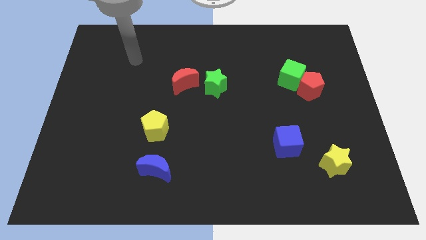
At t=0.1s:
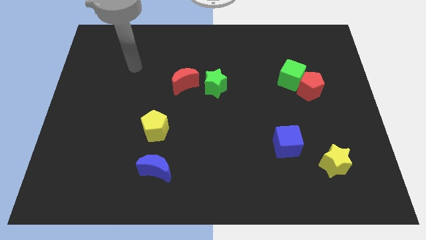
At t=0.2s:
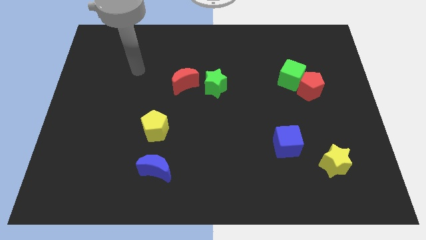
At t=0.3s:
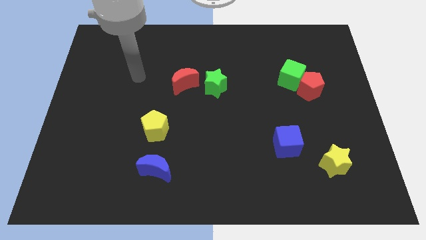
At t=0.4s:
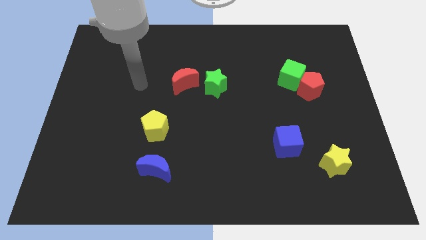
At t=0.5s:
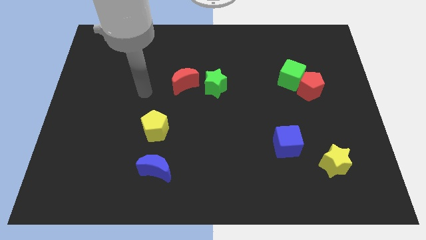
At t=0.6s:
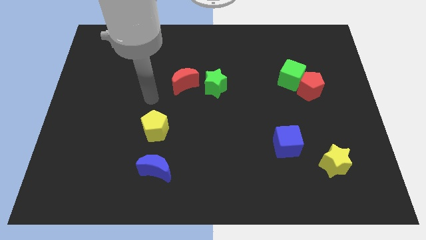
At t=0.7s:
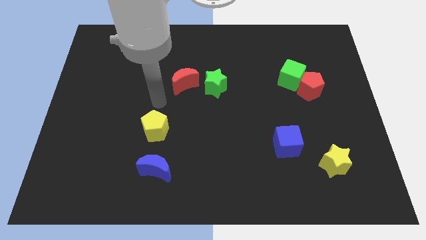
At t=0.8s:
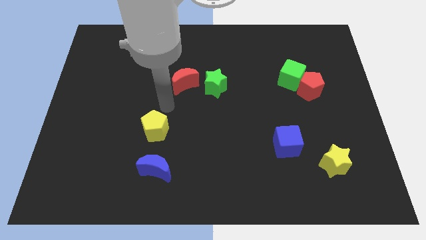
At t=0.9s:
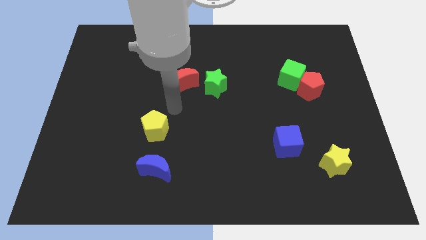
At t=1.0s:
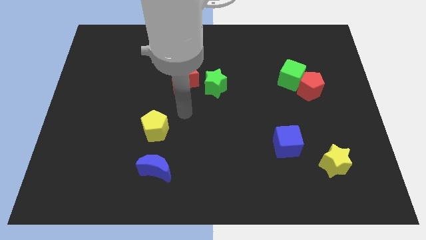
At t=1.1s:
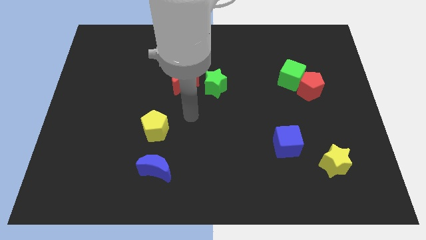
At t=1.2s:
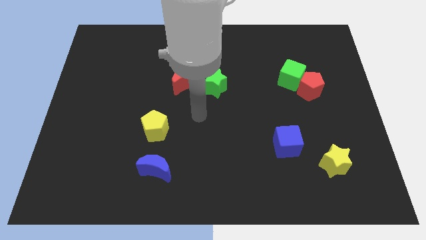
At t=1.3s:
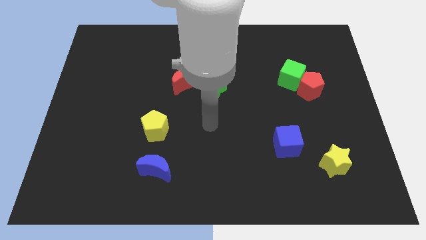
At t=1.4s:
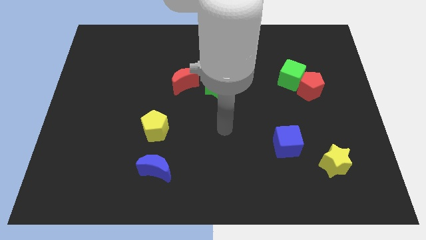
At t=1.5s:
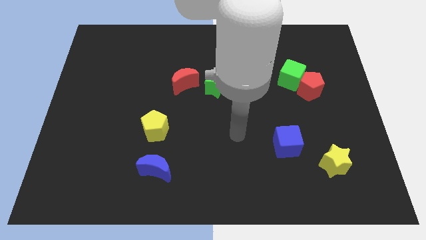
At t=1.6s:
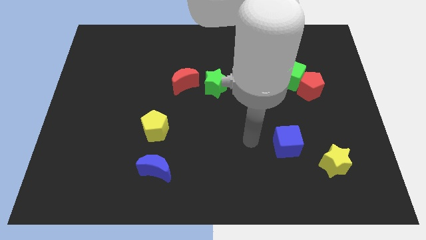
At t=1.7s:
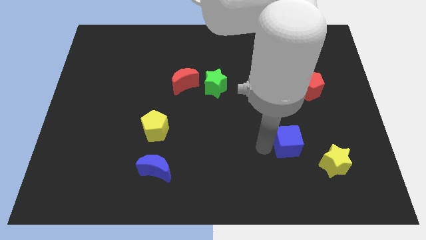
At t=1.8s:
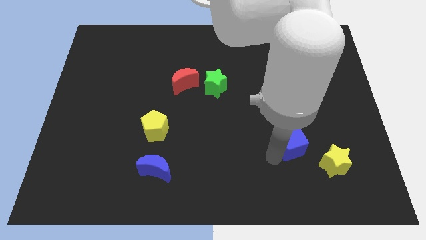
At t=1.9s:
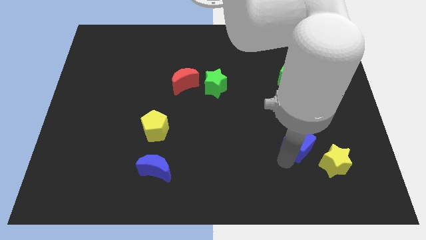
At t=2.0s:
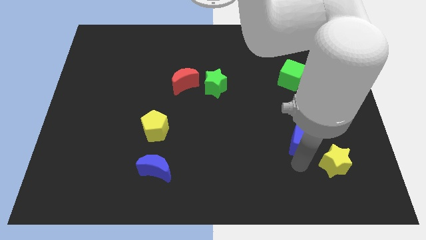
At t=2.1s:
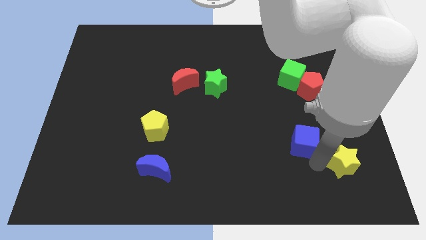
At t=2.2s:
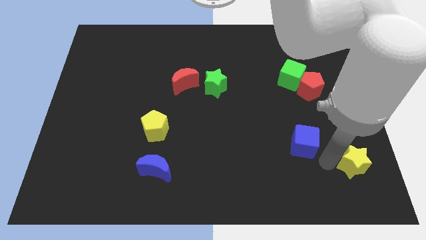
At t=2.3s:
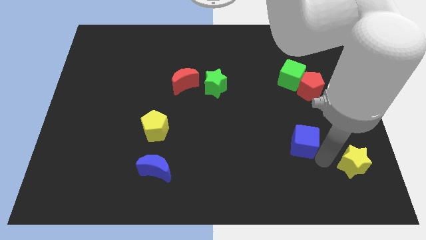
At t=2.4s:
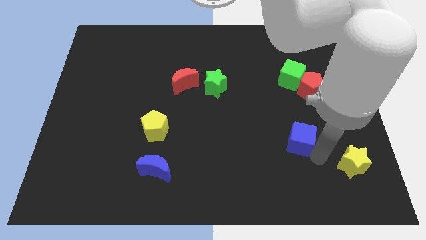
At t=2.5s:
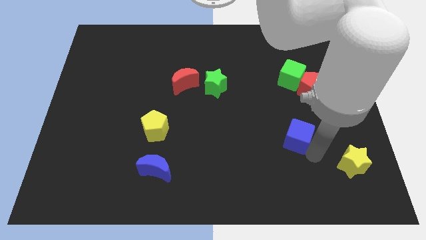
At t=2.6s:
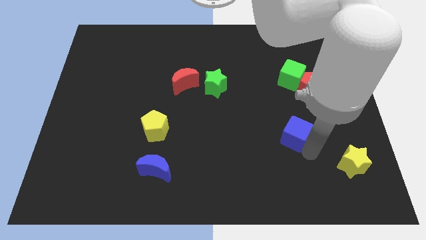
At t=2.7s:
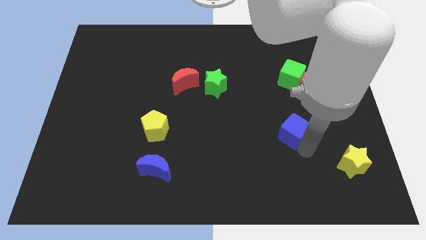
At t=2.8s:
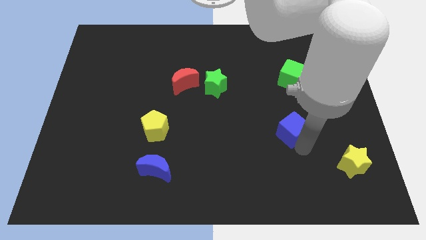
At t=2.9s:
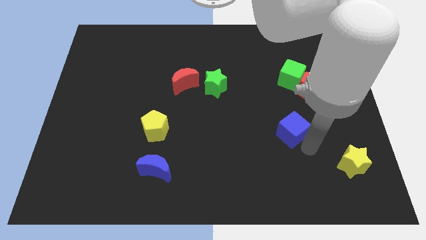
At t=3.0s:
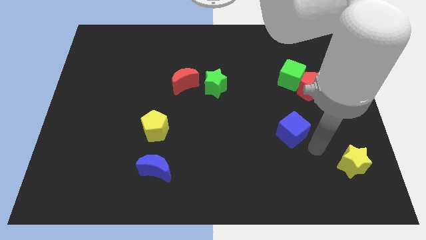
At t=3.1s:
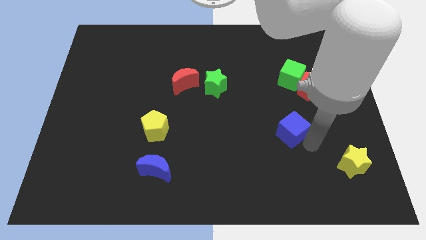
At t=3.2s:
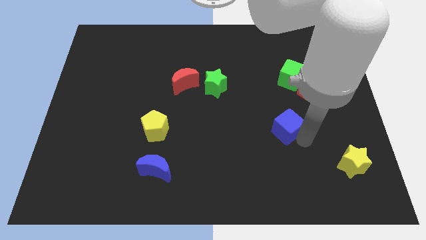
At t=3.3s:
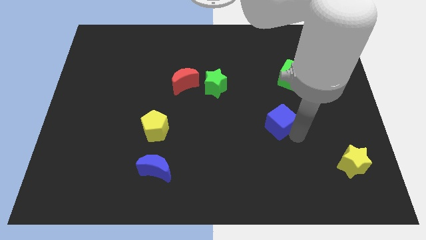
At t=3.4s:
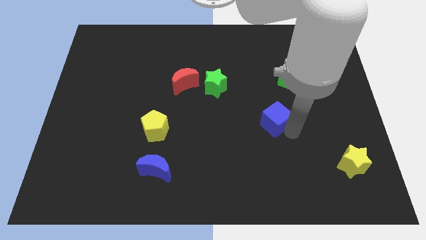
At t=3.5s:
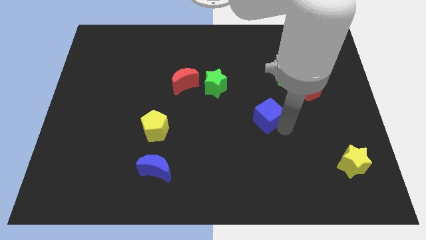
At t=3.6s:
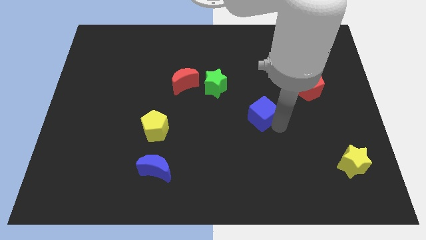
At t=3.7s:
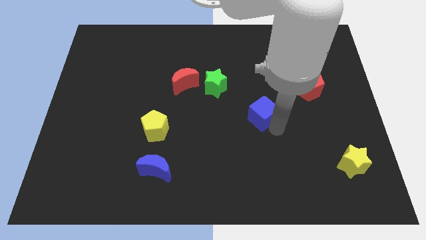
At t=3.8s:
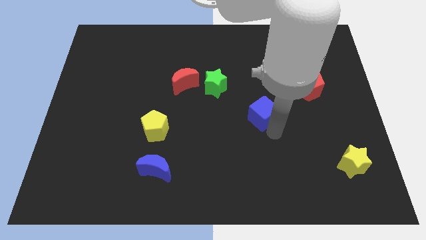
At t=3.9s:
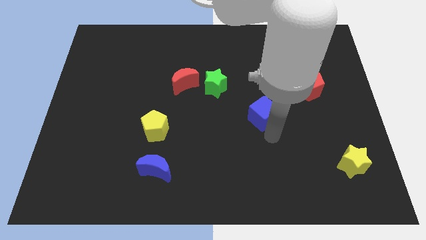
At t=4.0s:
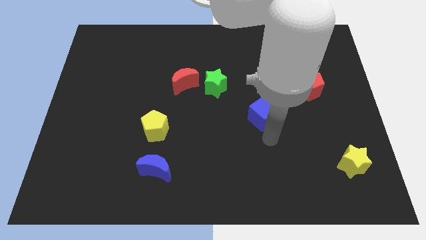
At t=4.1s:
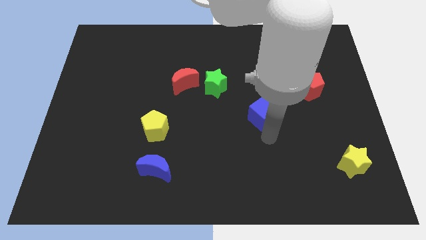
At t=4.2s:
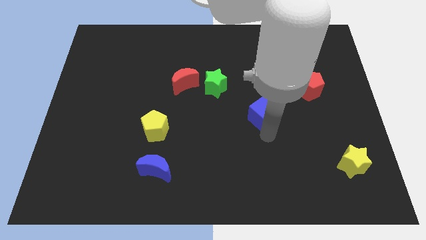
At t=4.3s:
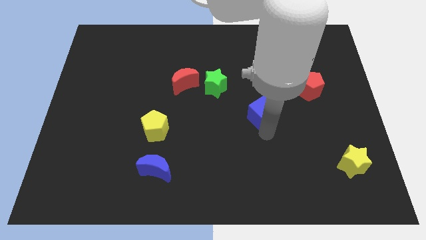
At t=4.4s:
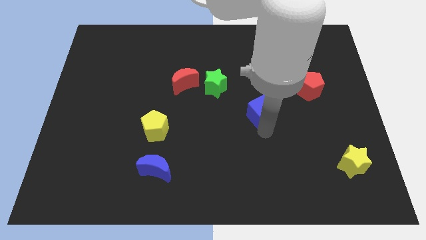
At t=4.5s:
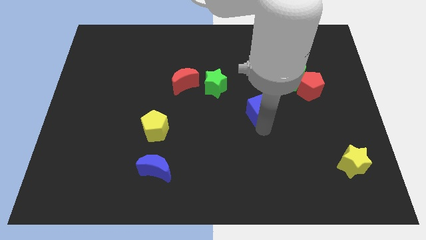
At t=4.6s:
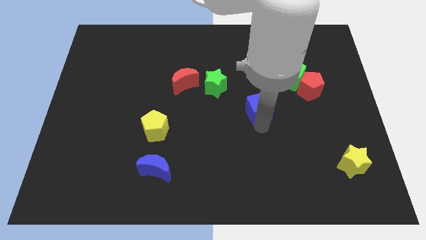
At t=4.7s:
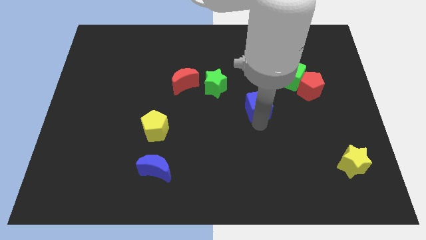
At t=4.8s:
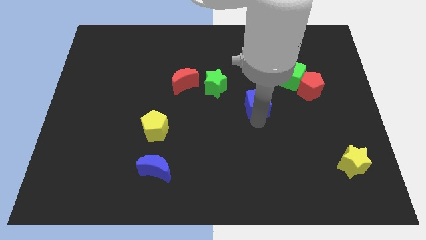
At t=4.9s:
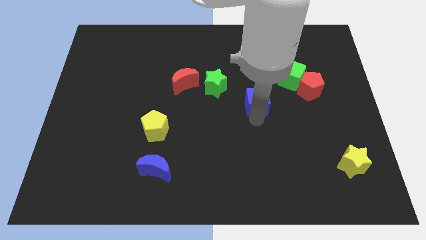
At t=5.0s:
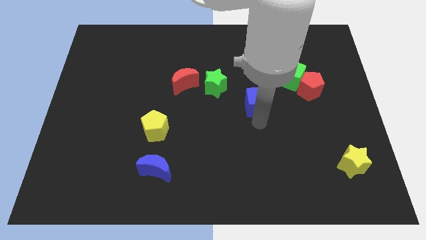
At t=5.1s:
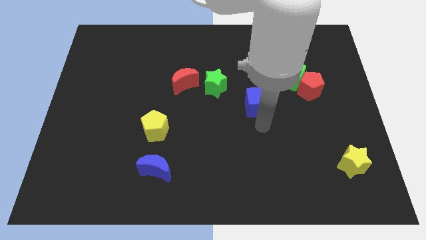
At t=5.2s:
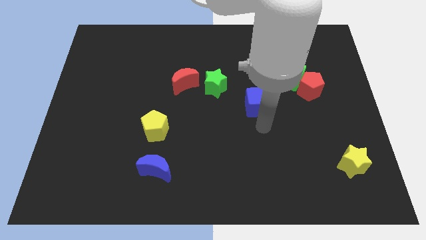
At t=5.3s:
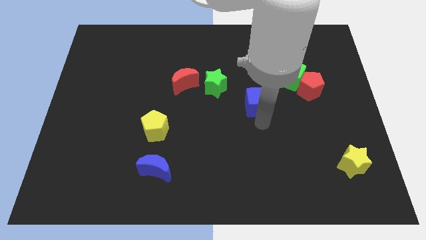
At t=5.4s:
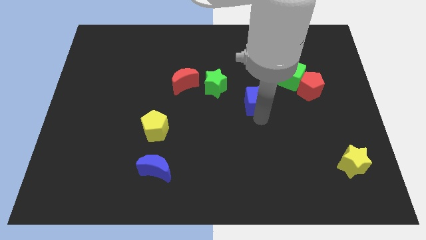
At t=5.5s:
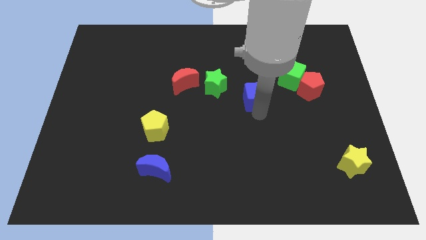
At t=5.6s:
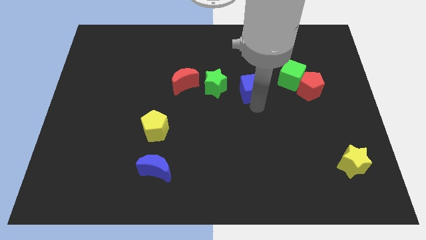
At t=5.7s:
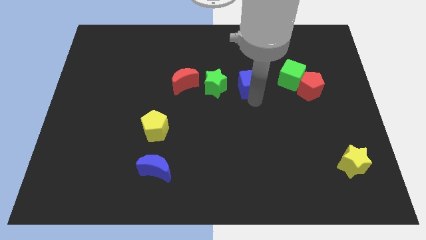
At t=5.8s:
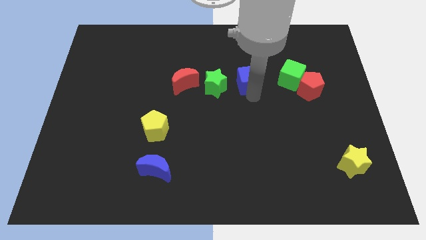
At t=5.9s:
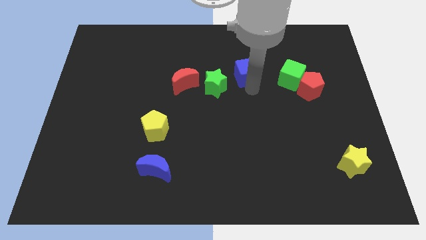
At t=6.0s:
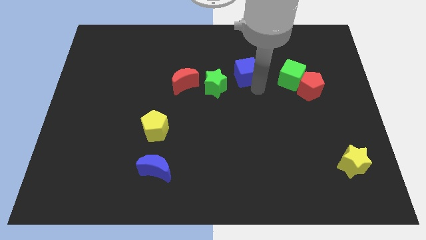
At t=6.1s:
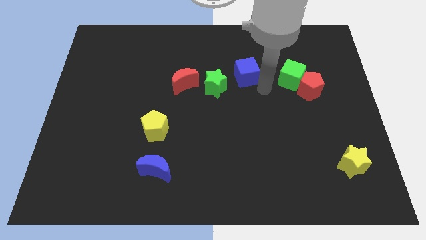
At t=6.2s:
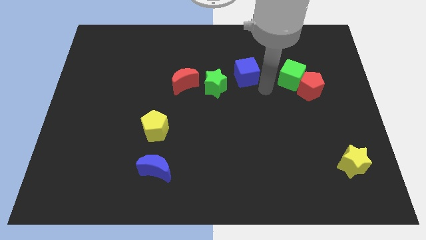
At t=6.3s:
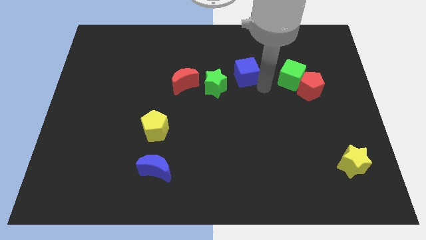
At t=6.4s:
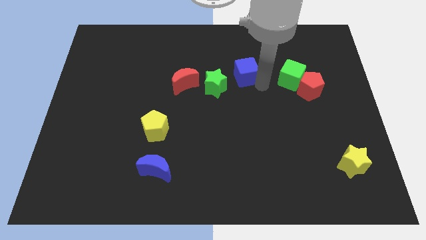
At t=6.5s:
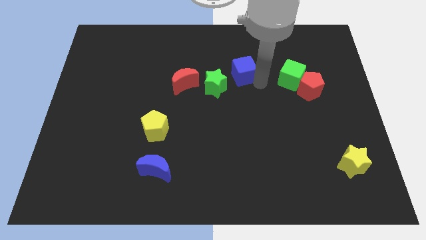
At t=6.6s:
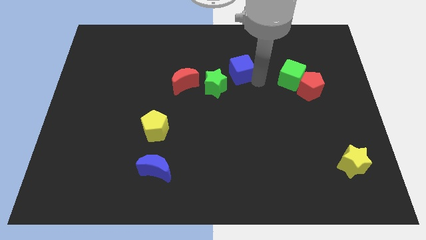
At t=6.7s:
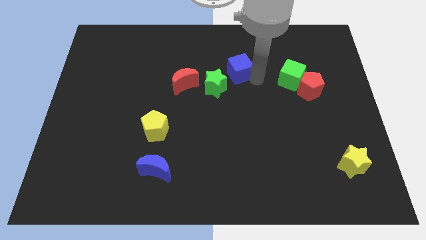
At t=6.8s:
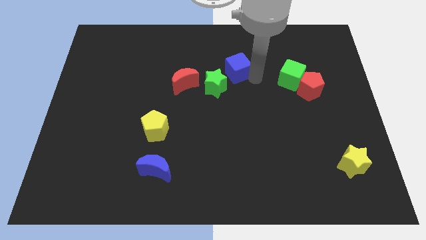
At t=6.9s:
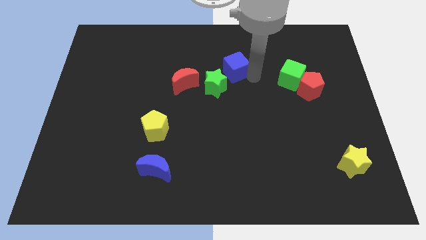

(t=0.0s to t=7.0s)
slide the blue cube up and to the left

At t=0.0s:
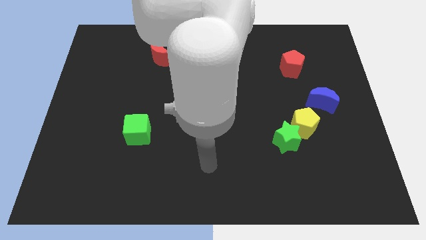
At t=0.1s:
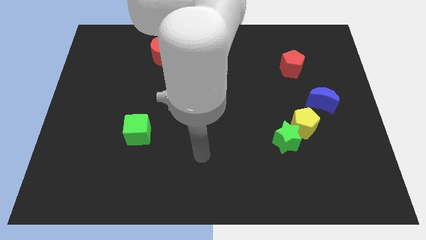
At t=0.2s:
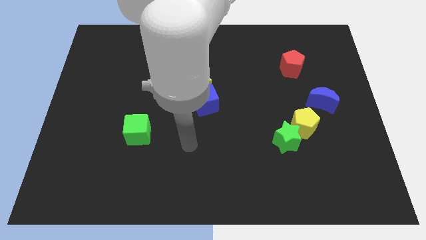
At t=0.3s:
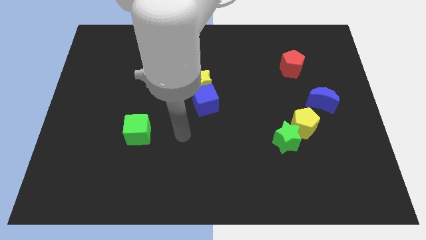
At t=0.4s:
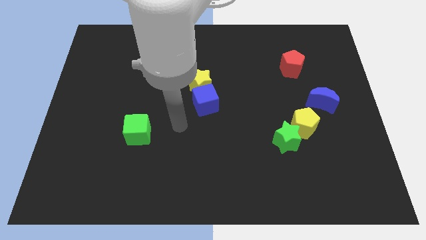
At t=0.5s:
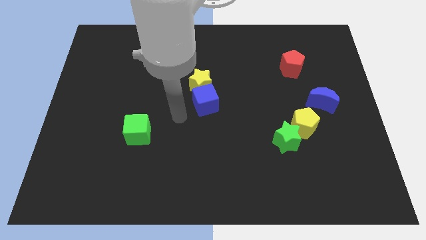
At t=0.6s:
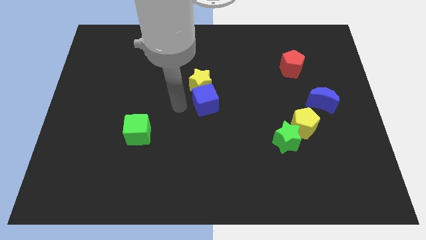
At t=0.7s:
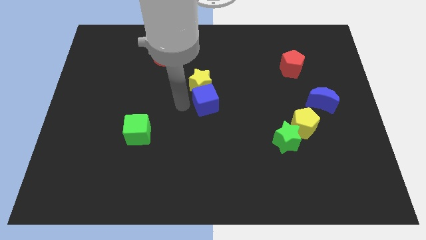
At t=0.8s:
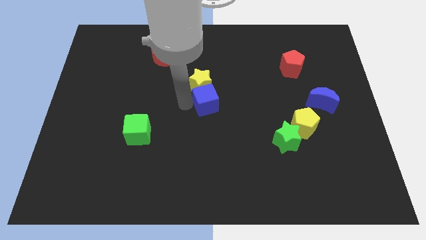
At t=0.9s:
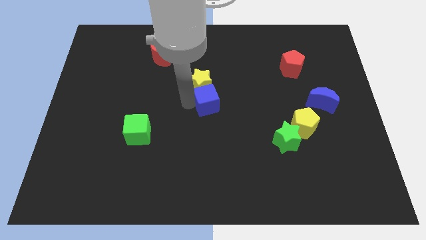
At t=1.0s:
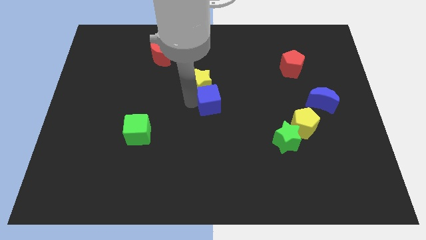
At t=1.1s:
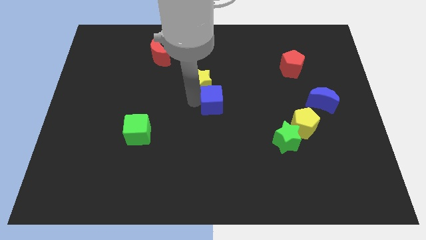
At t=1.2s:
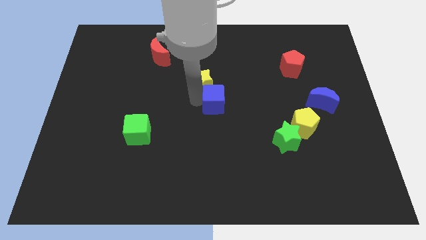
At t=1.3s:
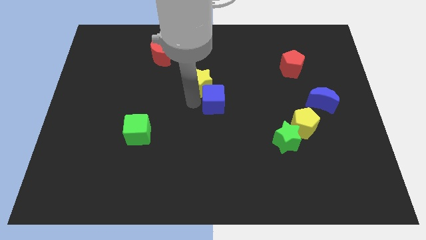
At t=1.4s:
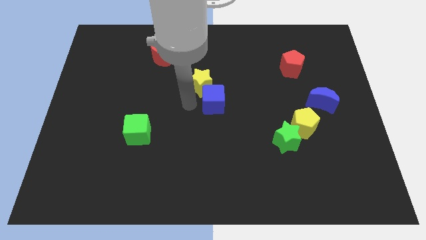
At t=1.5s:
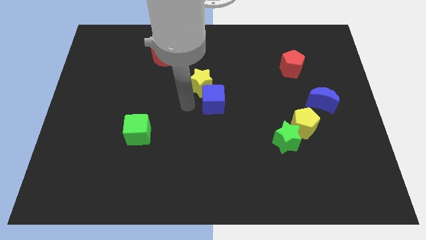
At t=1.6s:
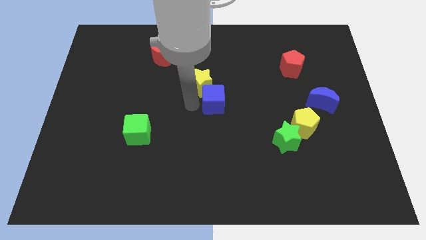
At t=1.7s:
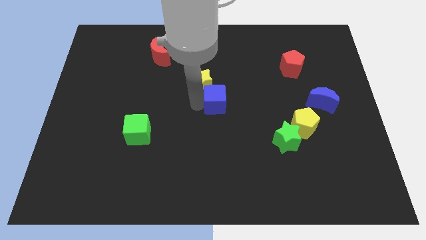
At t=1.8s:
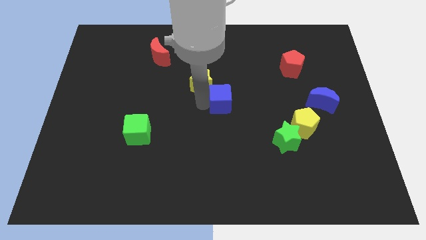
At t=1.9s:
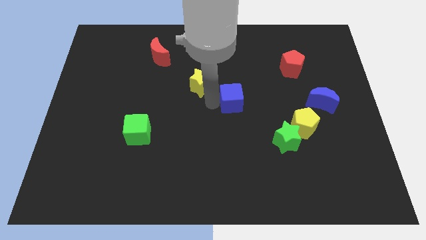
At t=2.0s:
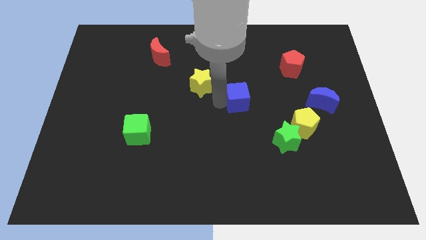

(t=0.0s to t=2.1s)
move the blue cube somewhat to the right
